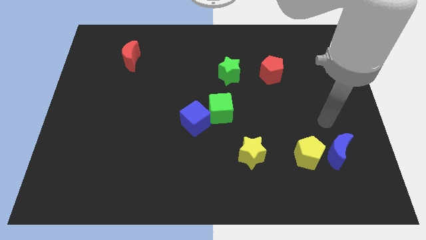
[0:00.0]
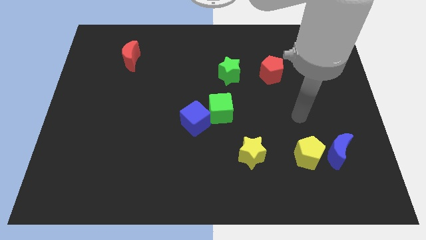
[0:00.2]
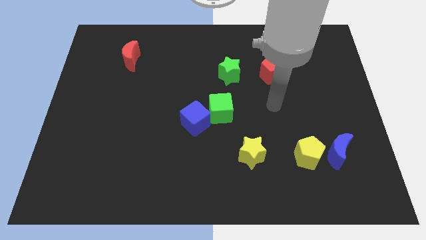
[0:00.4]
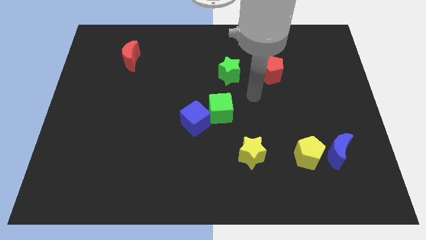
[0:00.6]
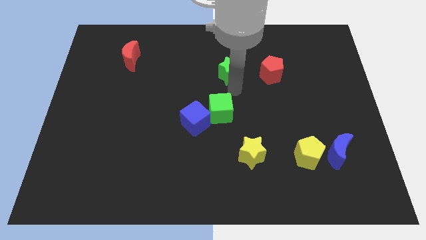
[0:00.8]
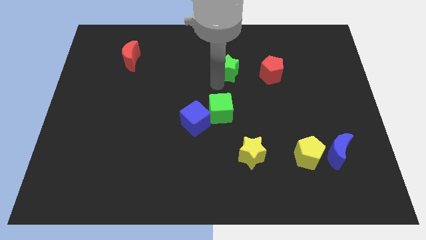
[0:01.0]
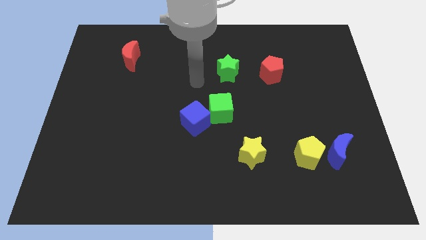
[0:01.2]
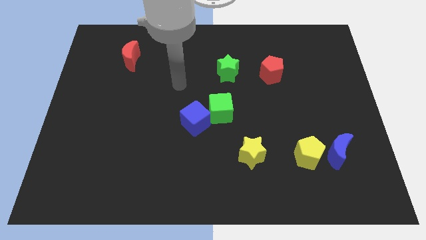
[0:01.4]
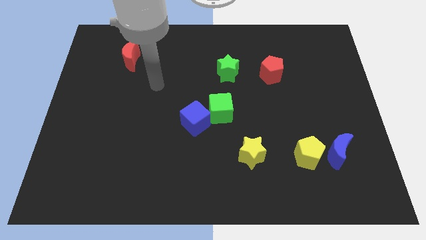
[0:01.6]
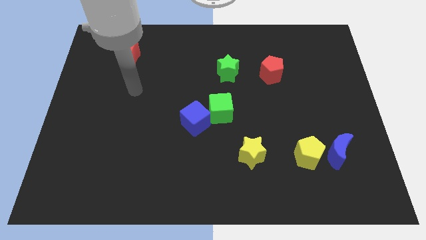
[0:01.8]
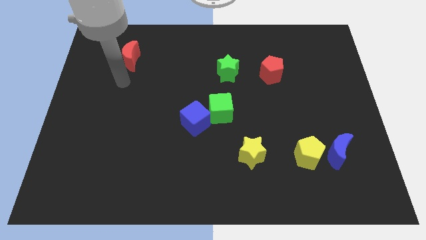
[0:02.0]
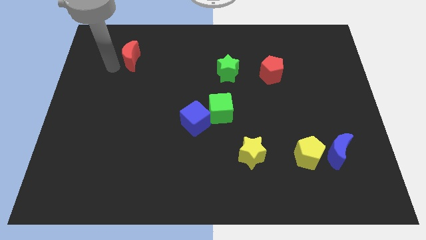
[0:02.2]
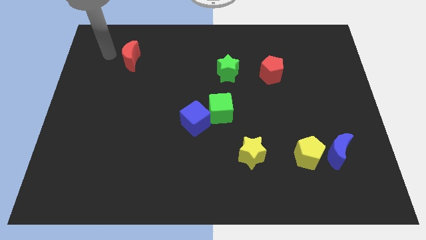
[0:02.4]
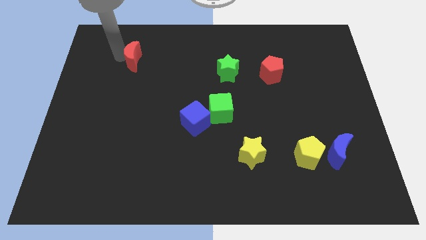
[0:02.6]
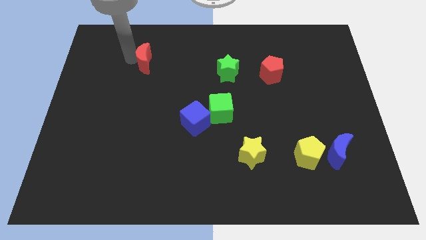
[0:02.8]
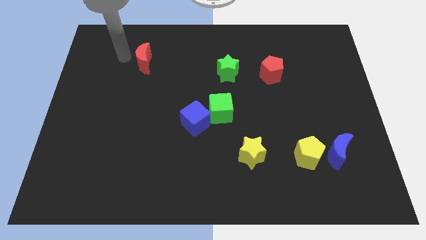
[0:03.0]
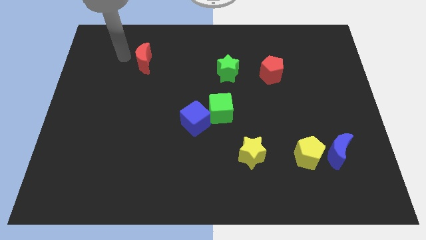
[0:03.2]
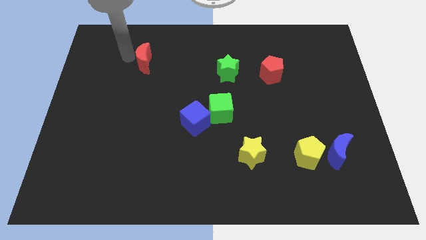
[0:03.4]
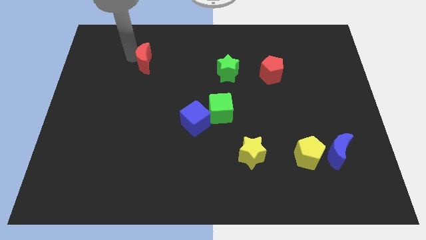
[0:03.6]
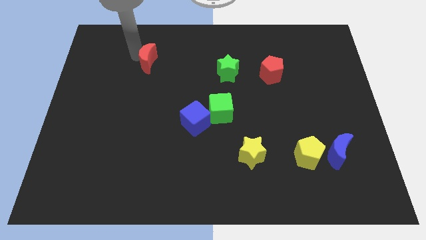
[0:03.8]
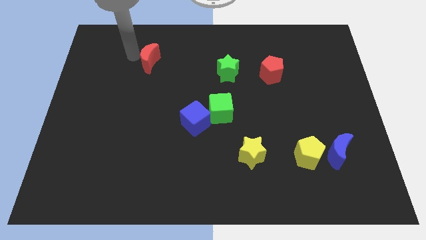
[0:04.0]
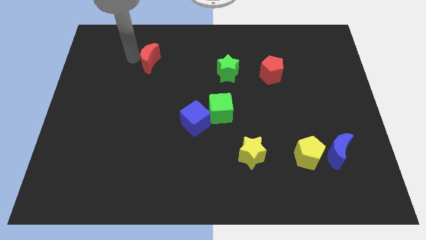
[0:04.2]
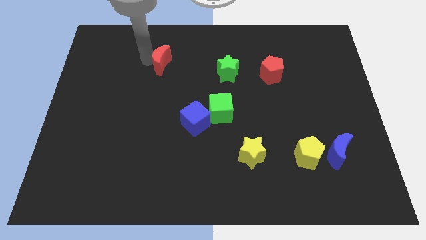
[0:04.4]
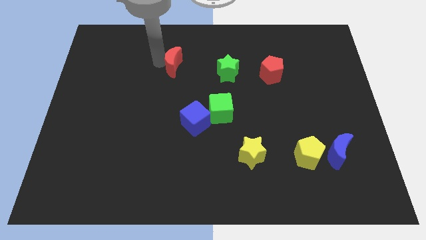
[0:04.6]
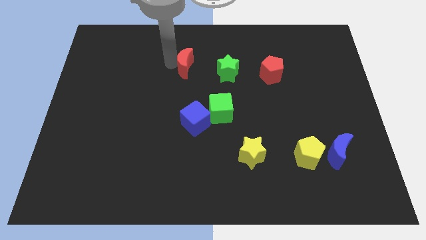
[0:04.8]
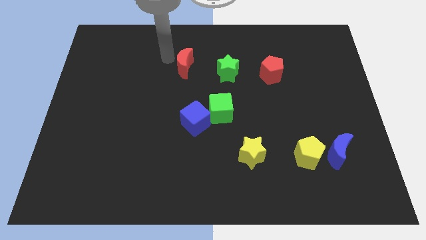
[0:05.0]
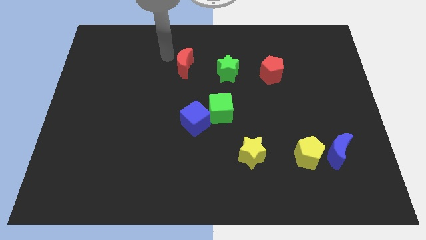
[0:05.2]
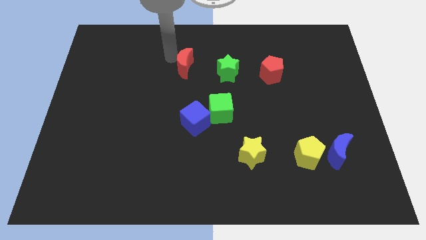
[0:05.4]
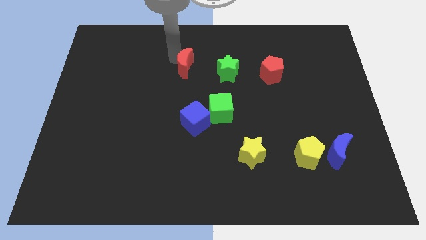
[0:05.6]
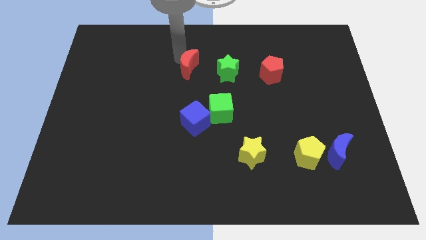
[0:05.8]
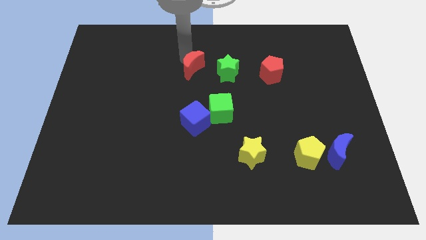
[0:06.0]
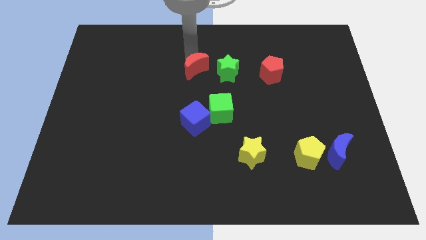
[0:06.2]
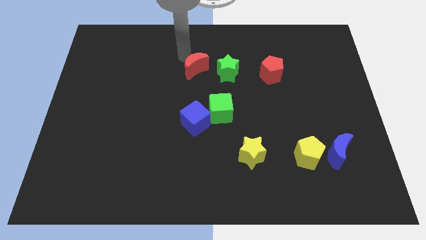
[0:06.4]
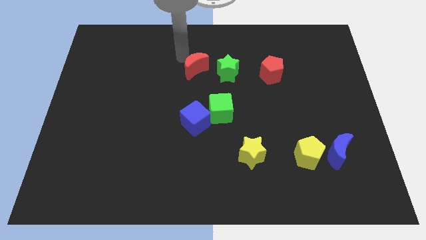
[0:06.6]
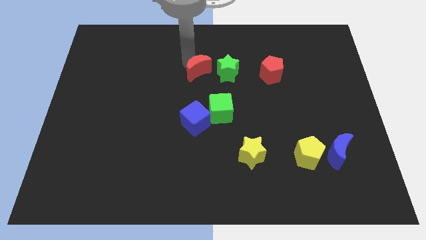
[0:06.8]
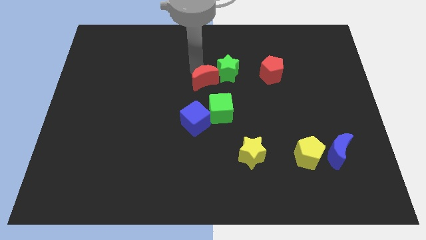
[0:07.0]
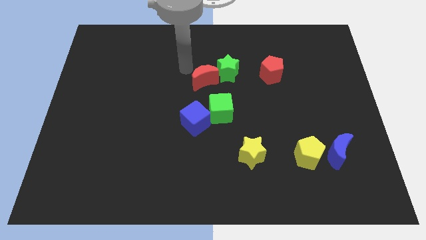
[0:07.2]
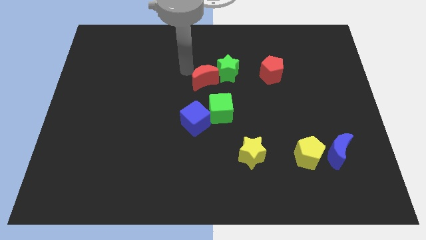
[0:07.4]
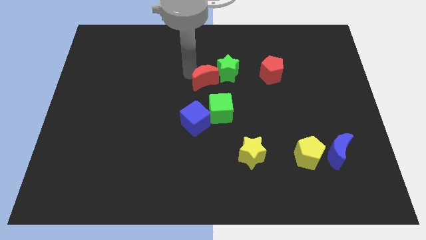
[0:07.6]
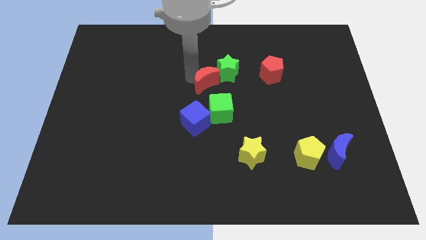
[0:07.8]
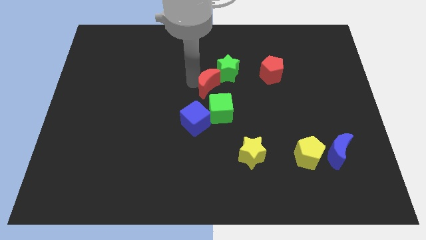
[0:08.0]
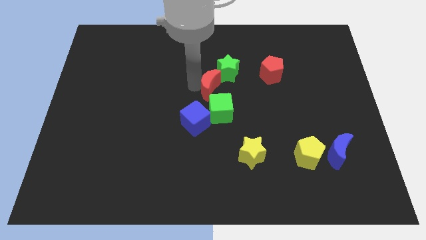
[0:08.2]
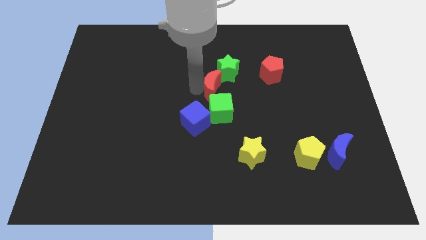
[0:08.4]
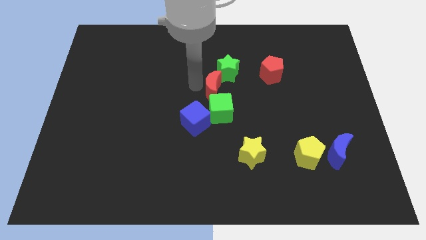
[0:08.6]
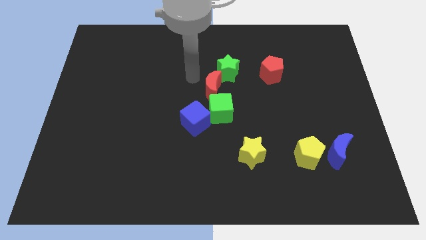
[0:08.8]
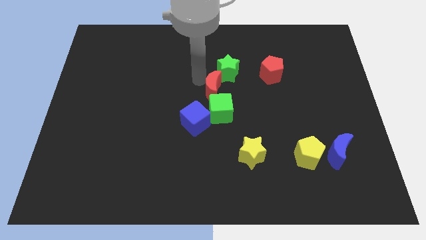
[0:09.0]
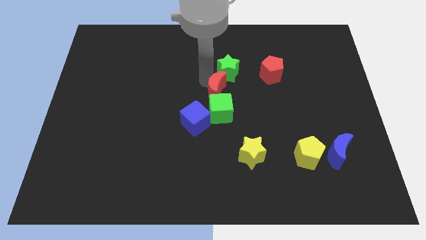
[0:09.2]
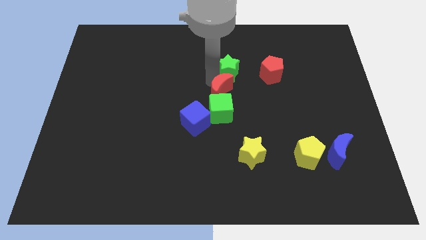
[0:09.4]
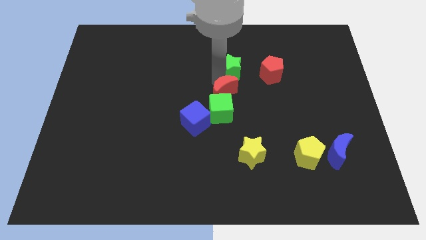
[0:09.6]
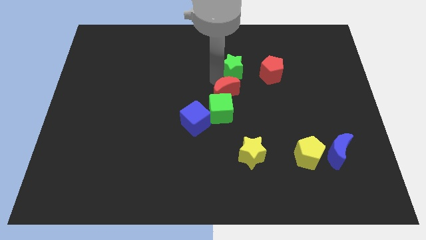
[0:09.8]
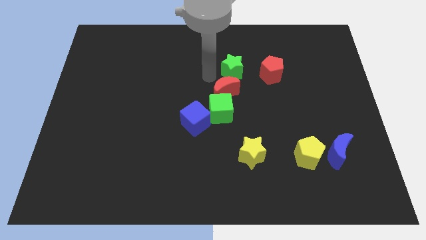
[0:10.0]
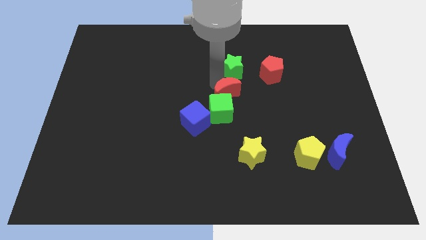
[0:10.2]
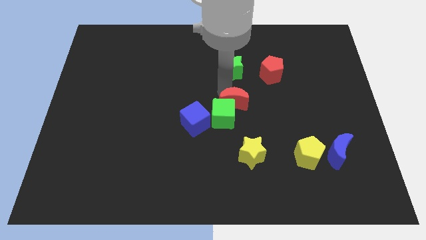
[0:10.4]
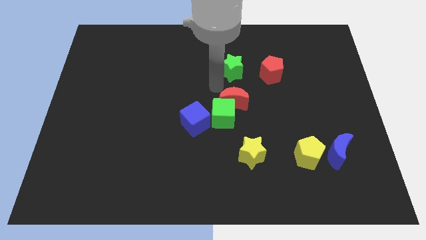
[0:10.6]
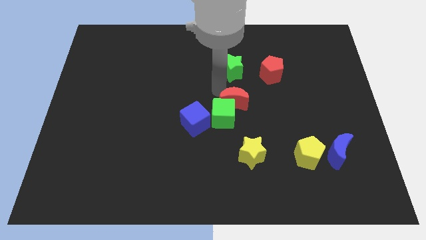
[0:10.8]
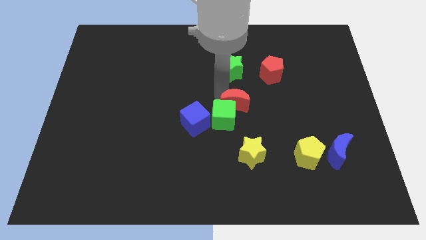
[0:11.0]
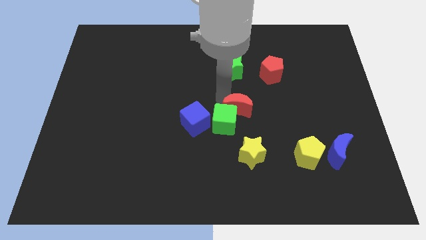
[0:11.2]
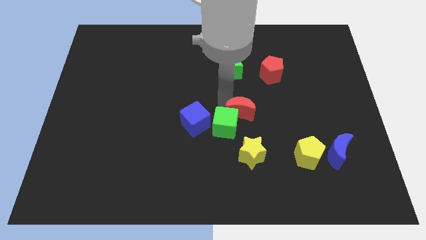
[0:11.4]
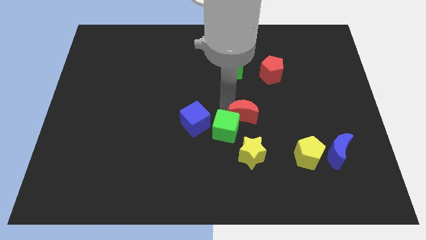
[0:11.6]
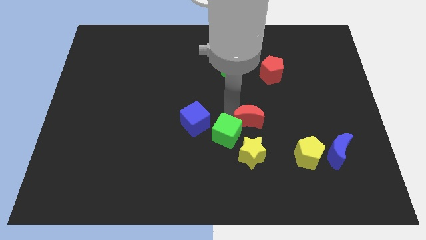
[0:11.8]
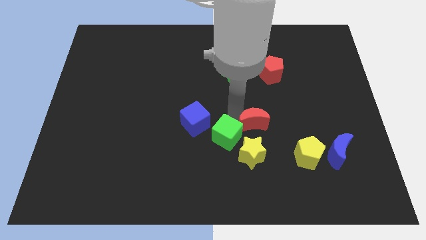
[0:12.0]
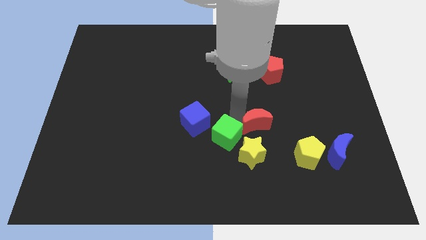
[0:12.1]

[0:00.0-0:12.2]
put the red moon diagonally up and to the right of the yellow star

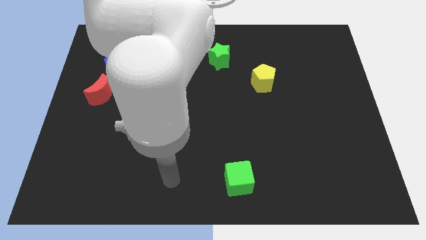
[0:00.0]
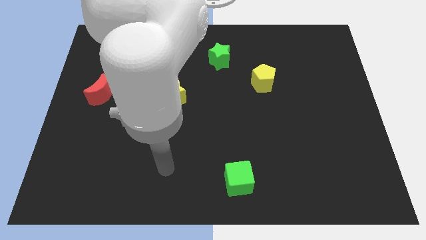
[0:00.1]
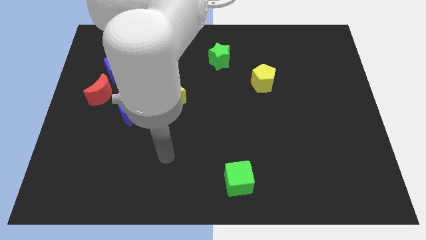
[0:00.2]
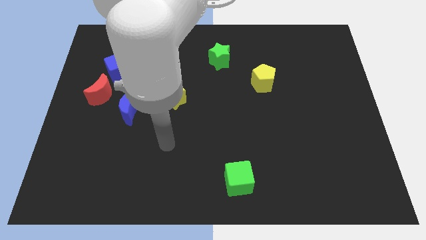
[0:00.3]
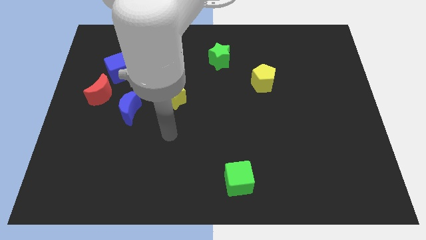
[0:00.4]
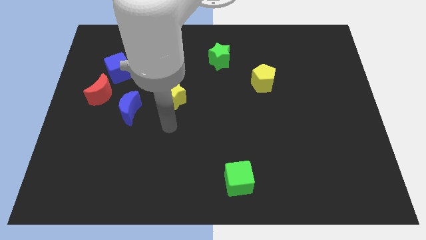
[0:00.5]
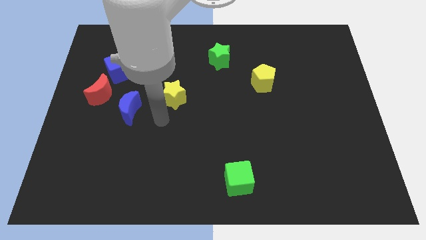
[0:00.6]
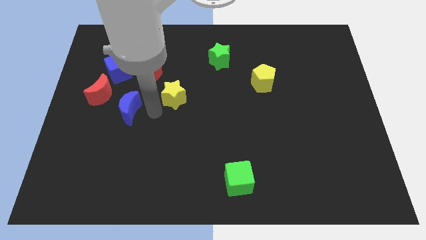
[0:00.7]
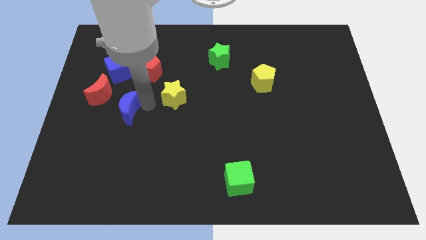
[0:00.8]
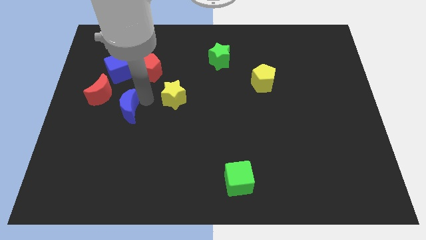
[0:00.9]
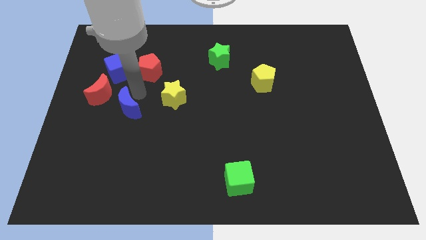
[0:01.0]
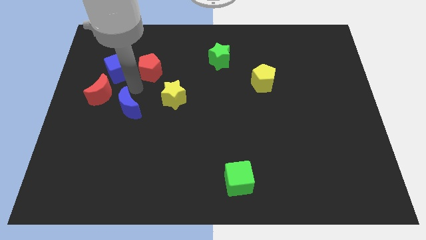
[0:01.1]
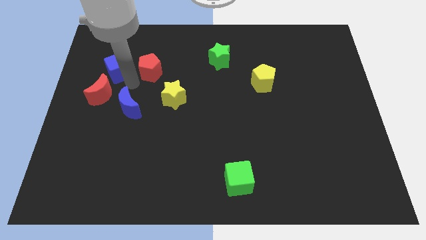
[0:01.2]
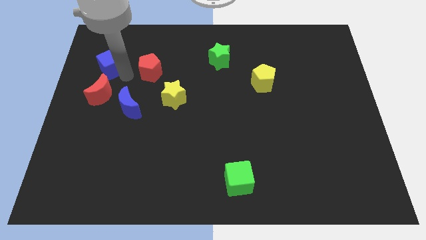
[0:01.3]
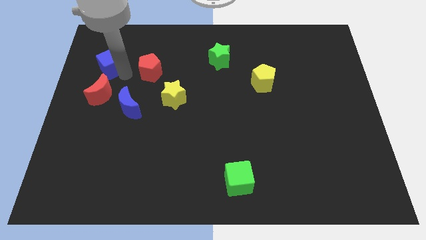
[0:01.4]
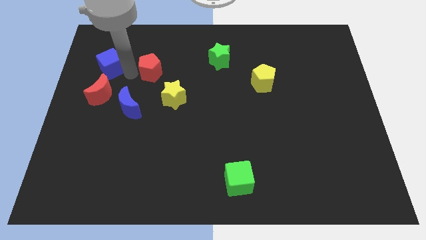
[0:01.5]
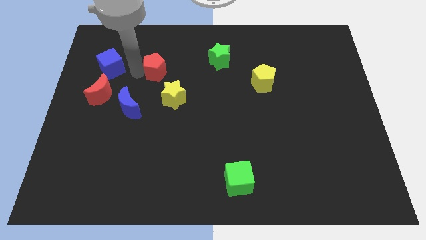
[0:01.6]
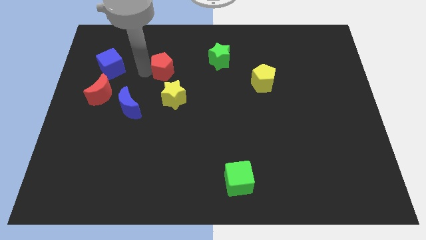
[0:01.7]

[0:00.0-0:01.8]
move the red pentagon to the top of the yellow star
